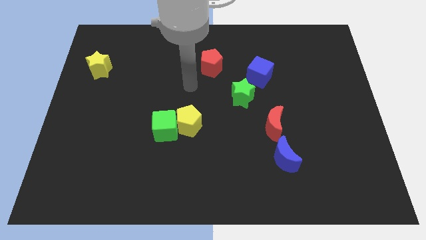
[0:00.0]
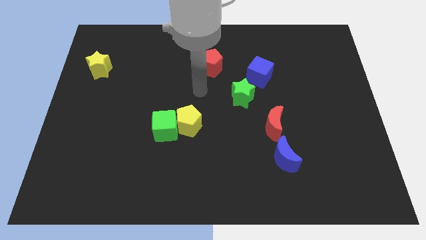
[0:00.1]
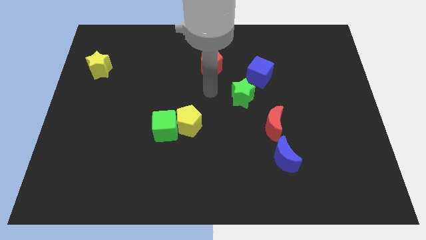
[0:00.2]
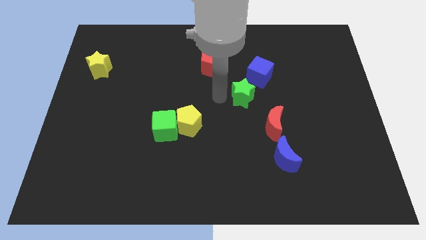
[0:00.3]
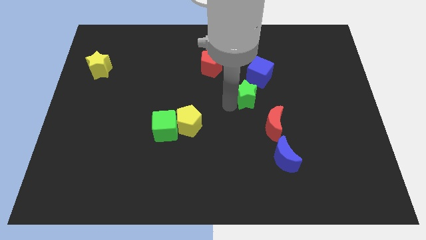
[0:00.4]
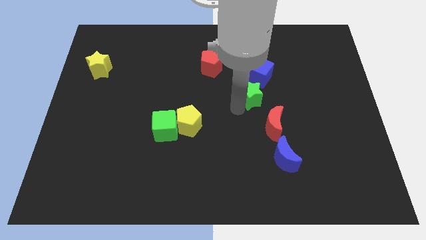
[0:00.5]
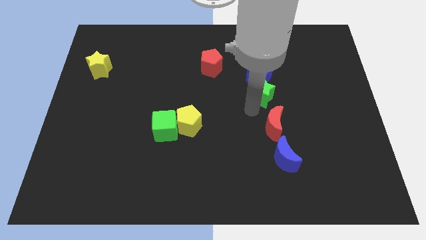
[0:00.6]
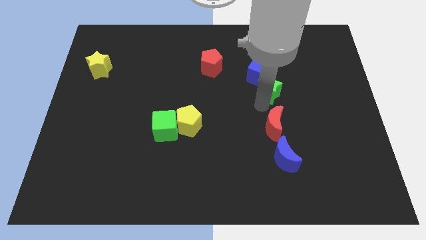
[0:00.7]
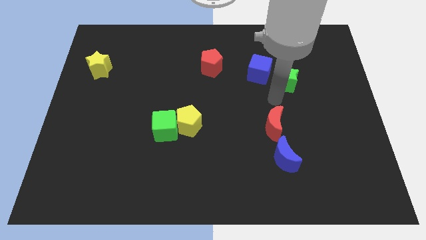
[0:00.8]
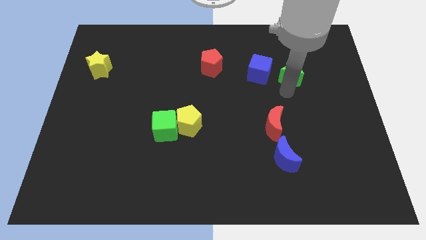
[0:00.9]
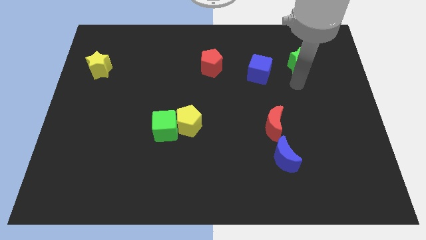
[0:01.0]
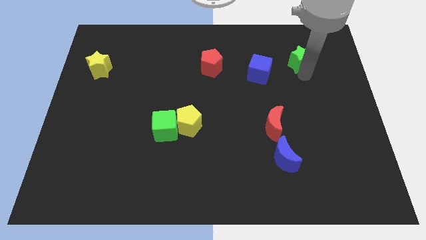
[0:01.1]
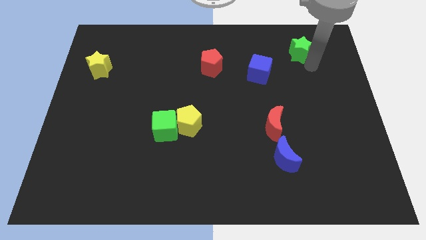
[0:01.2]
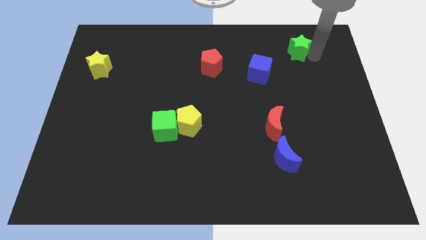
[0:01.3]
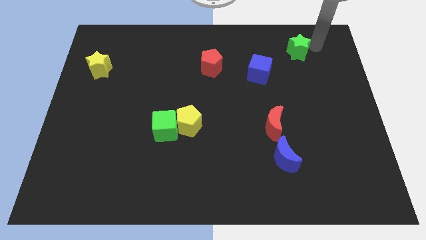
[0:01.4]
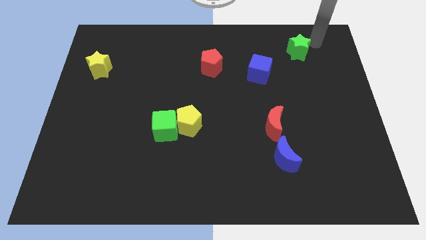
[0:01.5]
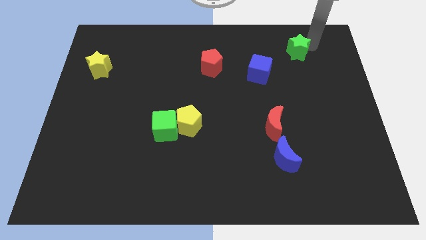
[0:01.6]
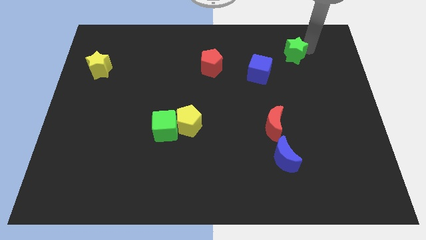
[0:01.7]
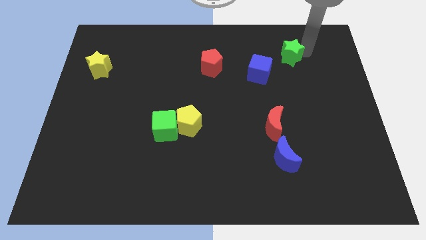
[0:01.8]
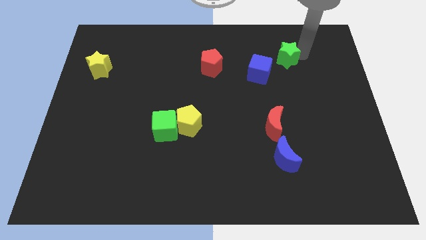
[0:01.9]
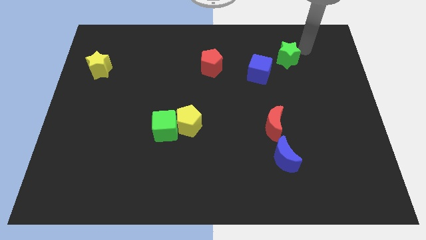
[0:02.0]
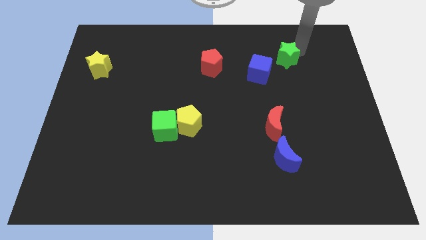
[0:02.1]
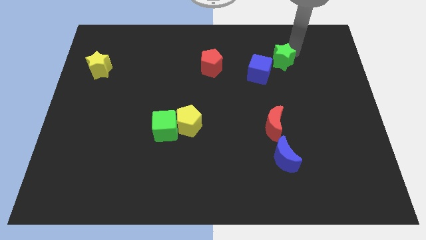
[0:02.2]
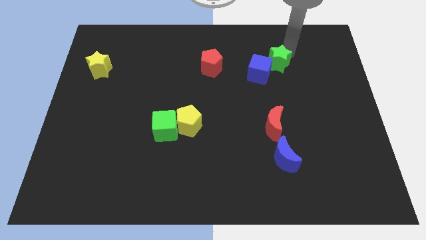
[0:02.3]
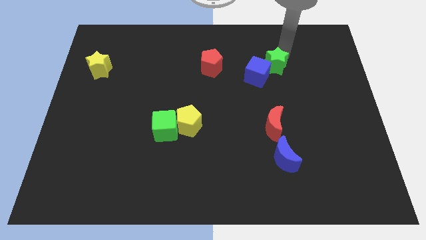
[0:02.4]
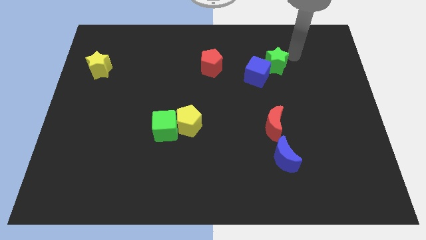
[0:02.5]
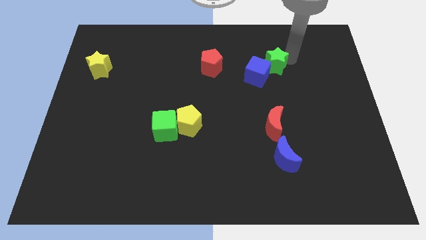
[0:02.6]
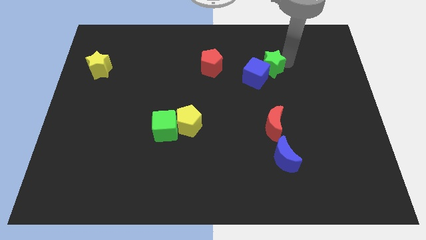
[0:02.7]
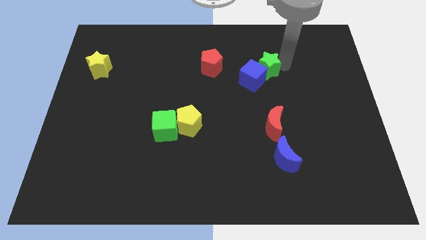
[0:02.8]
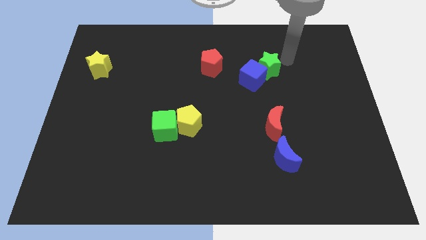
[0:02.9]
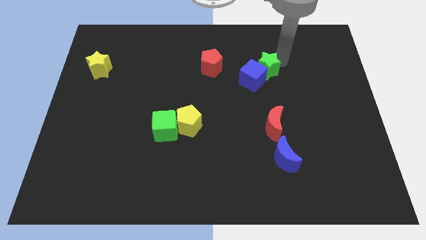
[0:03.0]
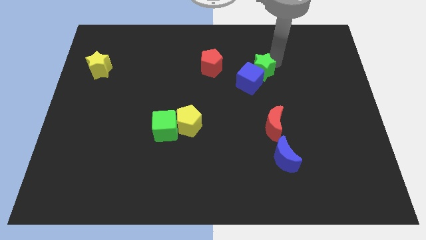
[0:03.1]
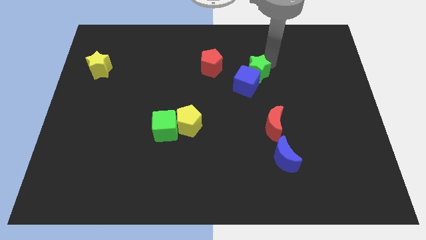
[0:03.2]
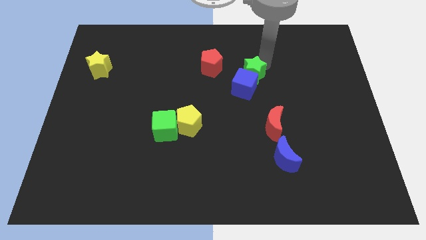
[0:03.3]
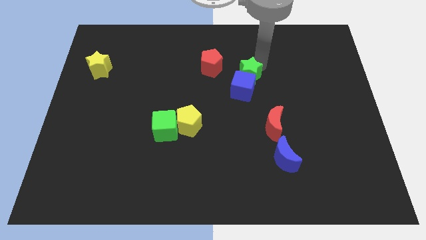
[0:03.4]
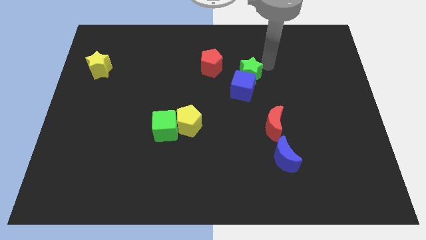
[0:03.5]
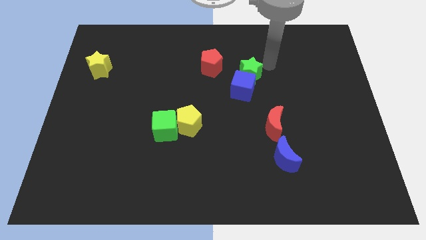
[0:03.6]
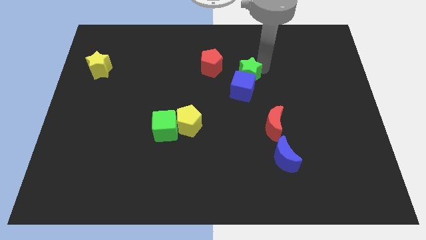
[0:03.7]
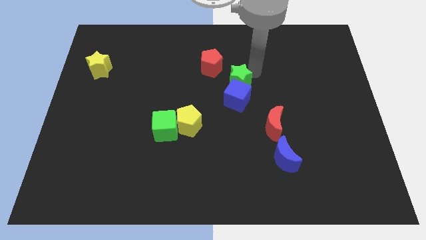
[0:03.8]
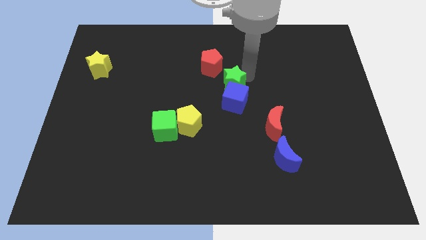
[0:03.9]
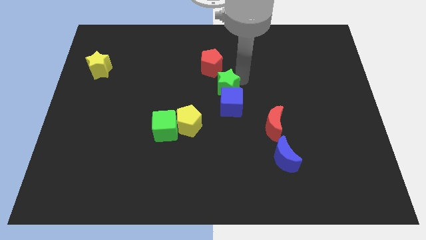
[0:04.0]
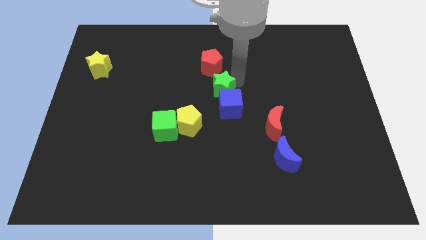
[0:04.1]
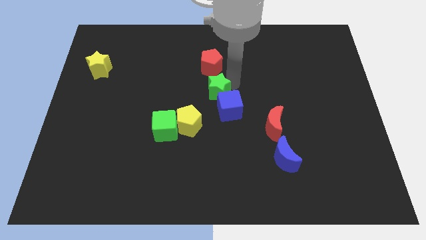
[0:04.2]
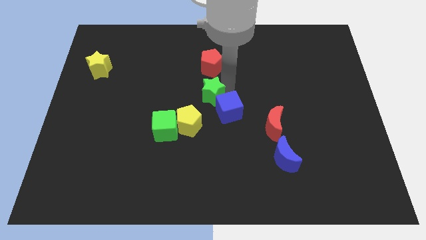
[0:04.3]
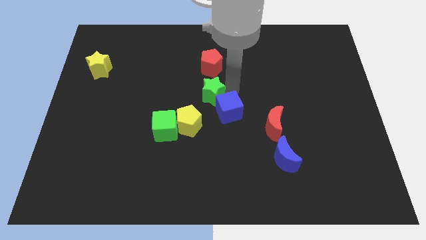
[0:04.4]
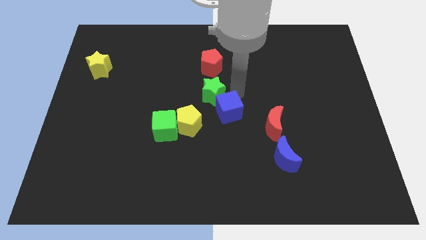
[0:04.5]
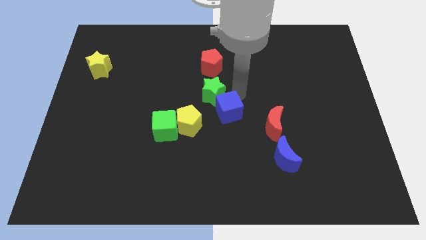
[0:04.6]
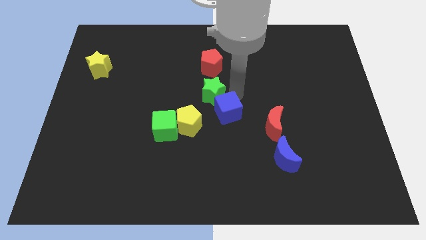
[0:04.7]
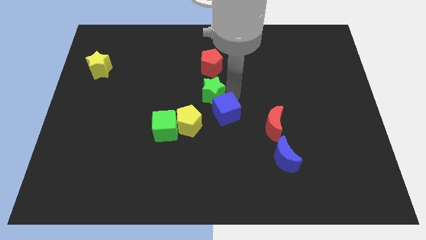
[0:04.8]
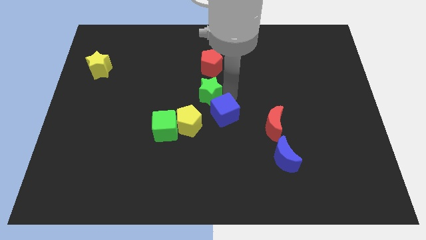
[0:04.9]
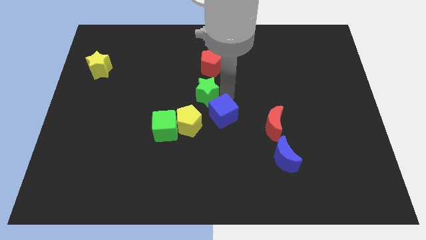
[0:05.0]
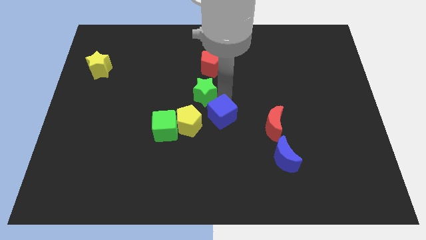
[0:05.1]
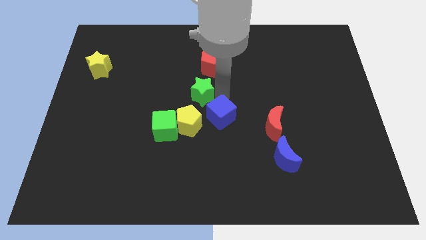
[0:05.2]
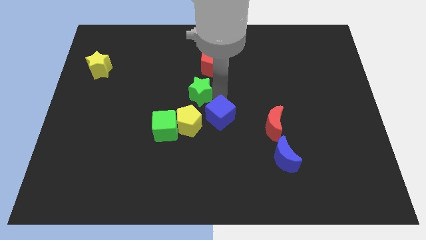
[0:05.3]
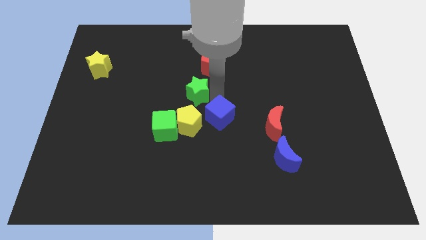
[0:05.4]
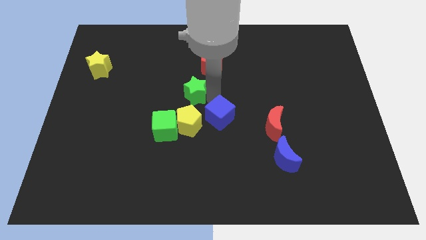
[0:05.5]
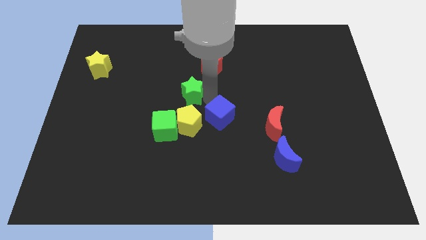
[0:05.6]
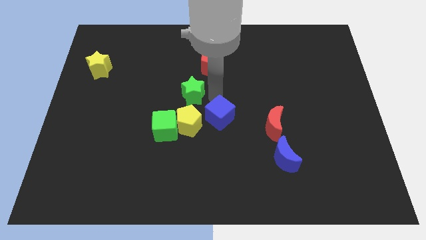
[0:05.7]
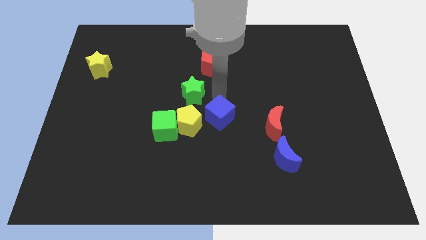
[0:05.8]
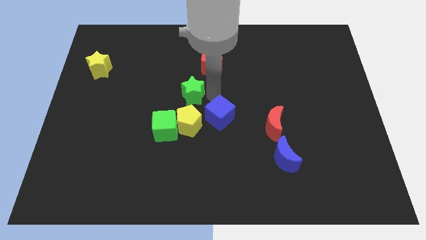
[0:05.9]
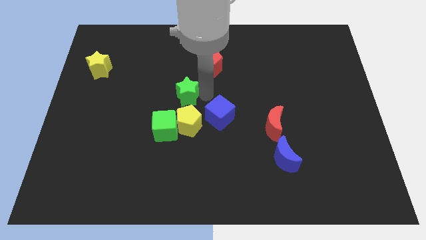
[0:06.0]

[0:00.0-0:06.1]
slide the green star above the green cube

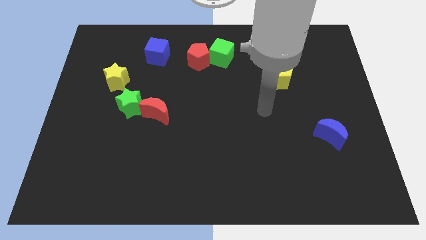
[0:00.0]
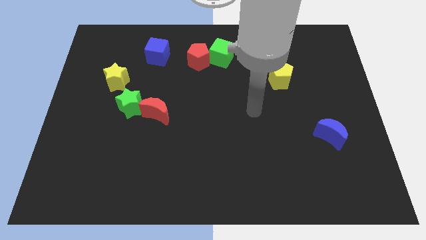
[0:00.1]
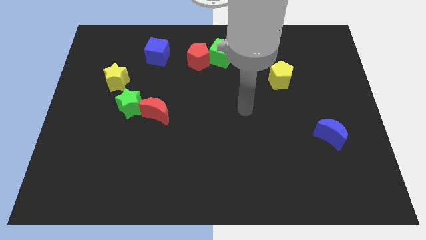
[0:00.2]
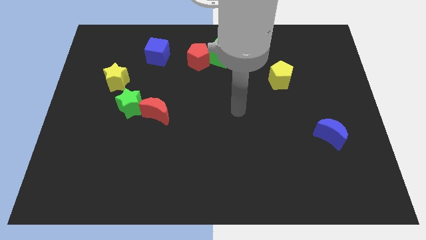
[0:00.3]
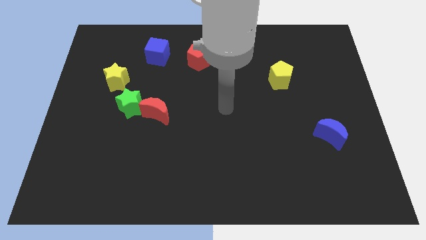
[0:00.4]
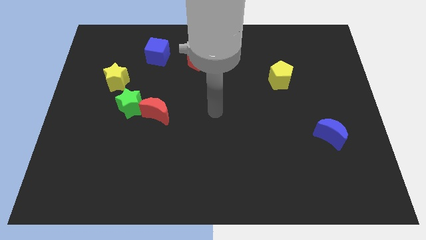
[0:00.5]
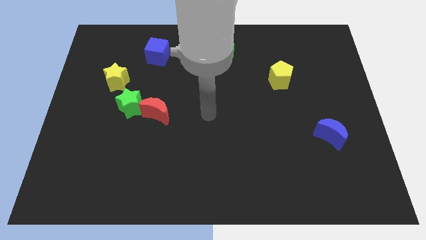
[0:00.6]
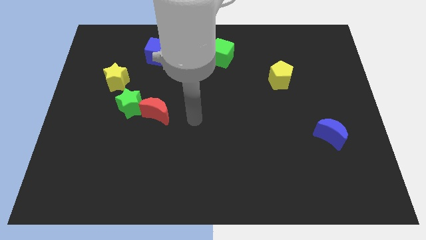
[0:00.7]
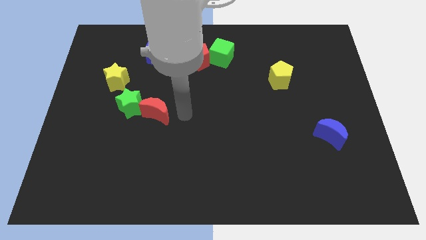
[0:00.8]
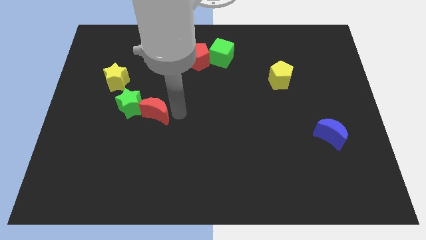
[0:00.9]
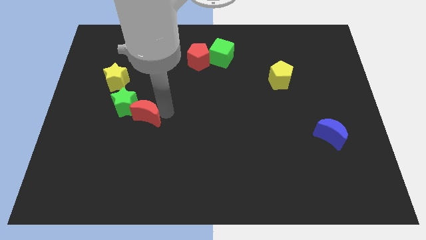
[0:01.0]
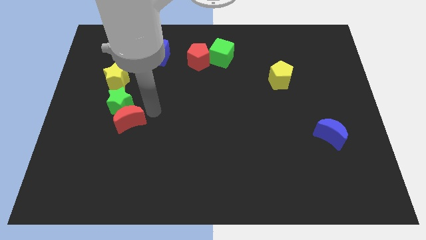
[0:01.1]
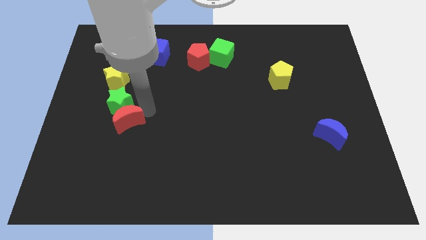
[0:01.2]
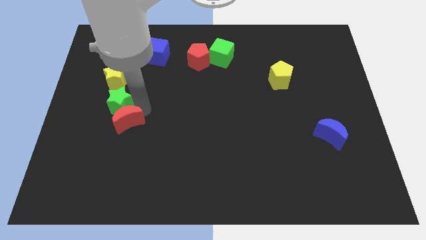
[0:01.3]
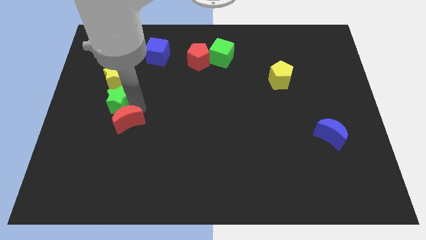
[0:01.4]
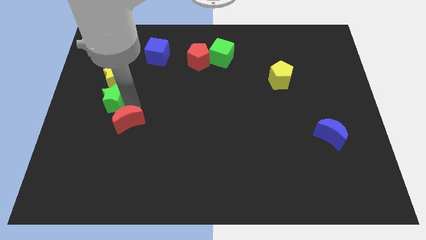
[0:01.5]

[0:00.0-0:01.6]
move the green star diagonally down and to the left of the yellow star
